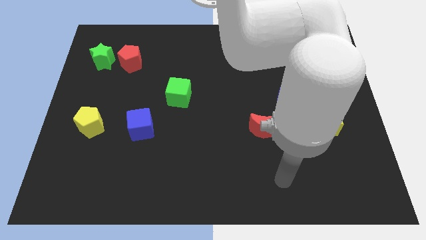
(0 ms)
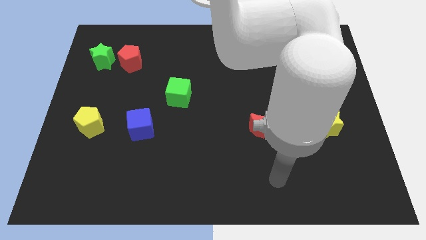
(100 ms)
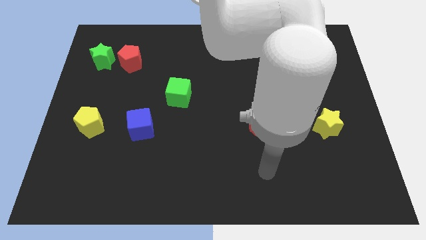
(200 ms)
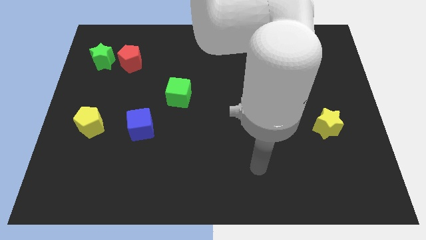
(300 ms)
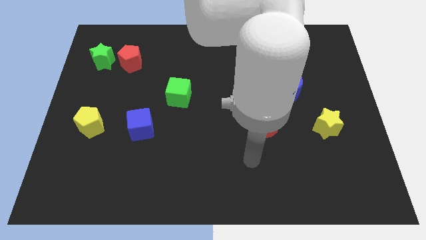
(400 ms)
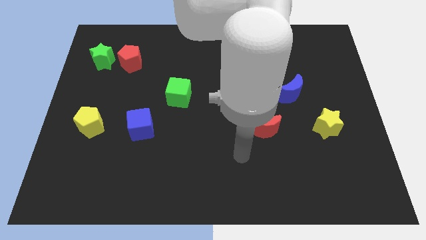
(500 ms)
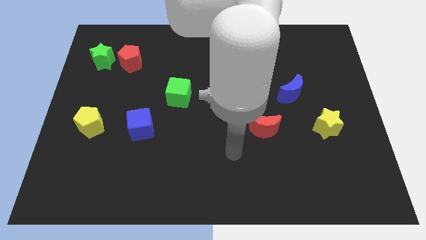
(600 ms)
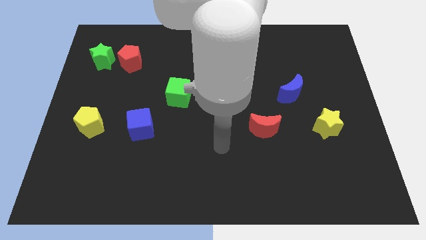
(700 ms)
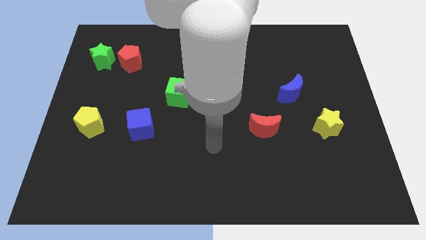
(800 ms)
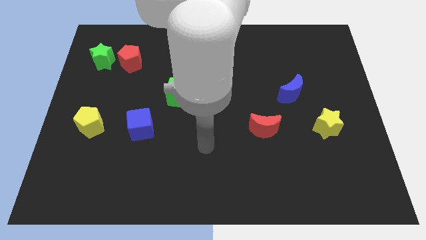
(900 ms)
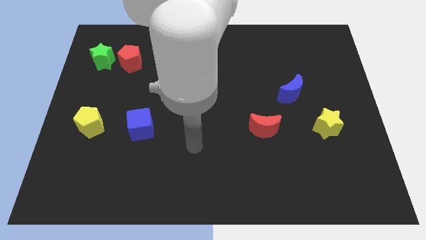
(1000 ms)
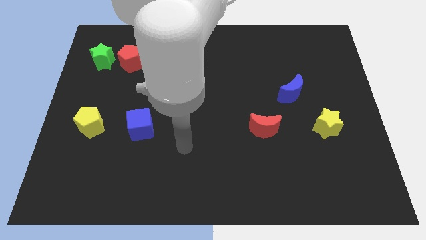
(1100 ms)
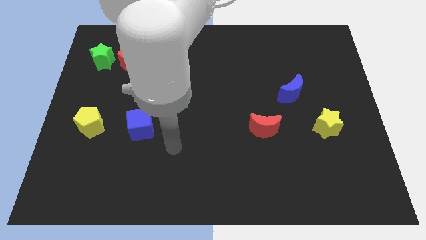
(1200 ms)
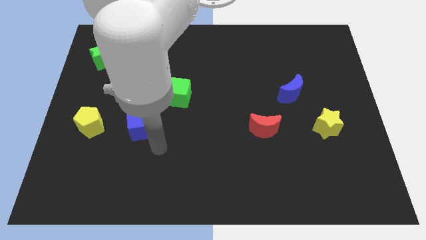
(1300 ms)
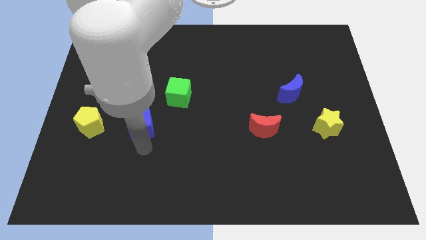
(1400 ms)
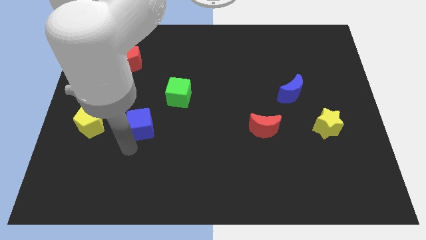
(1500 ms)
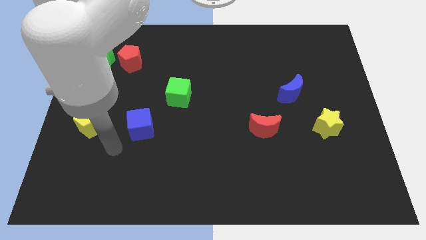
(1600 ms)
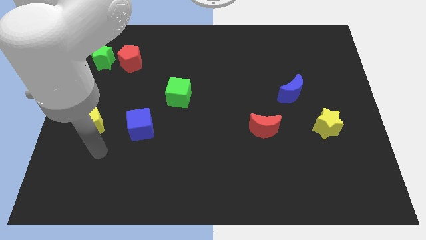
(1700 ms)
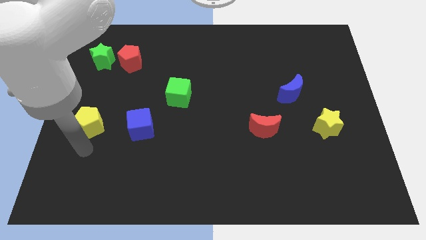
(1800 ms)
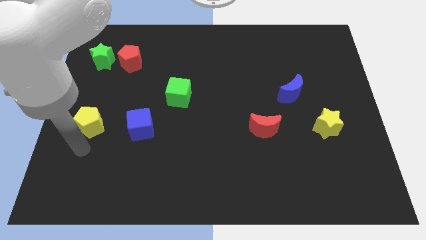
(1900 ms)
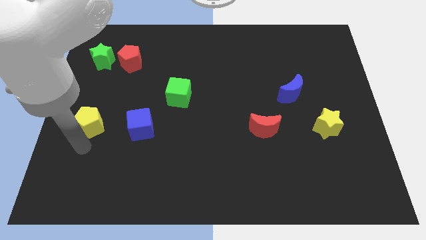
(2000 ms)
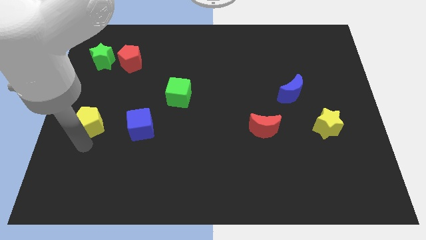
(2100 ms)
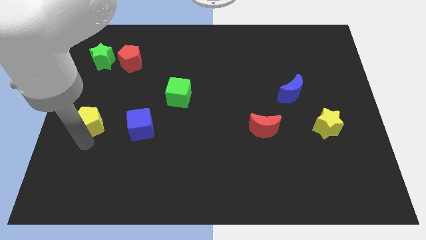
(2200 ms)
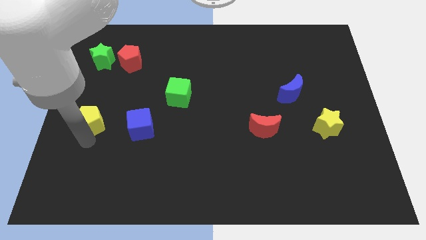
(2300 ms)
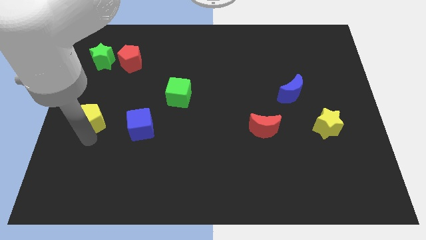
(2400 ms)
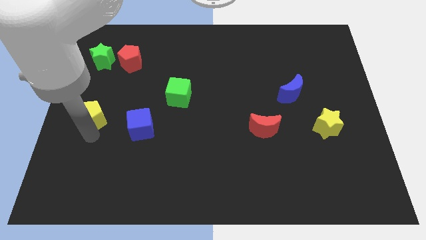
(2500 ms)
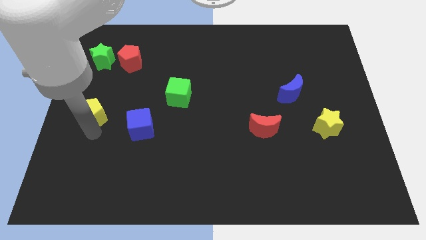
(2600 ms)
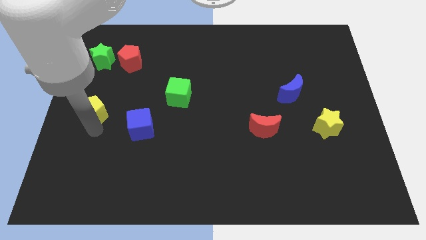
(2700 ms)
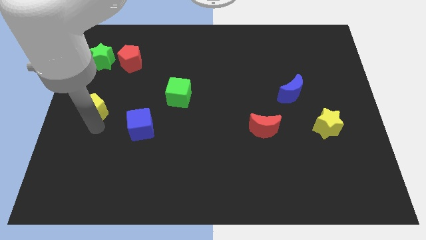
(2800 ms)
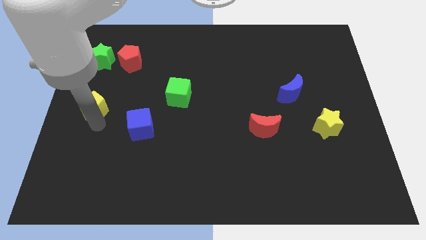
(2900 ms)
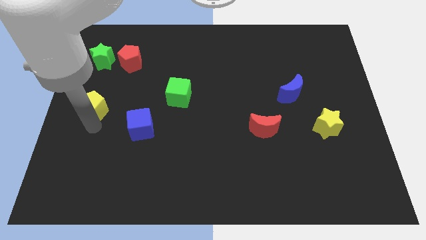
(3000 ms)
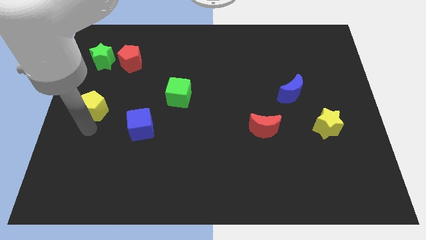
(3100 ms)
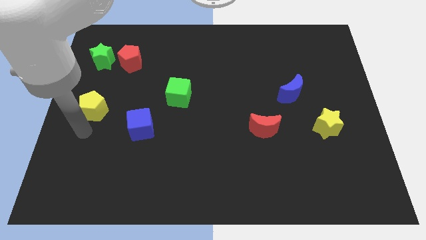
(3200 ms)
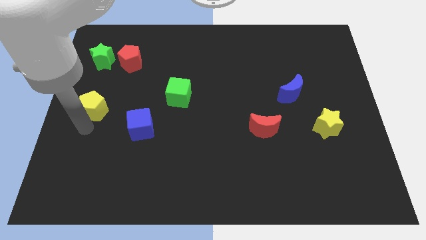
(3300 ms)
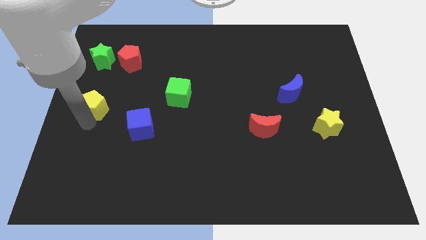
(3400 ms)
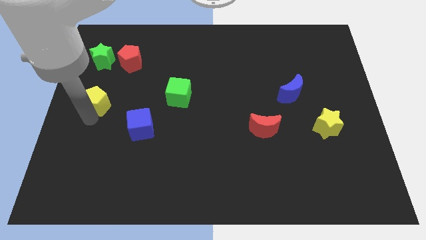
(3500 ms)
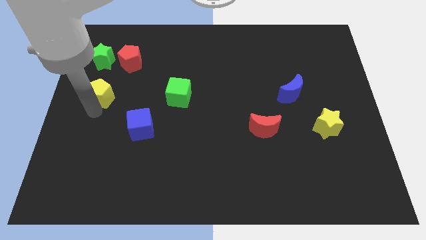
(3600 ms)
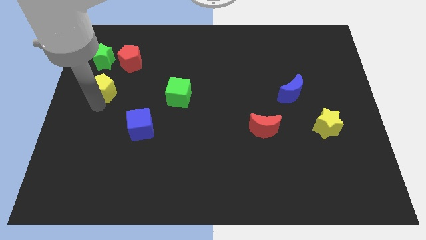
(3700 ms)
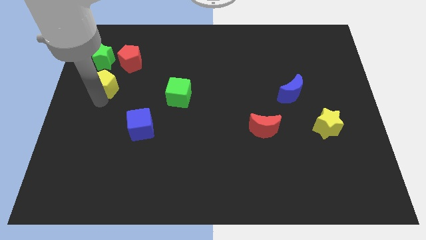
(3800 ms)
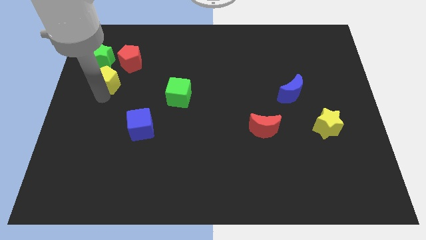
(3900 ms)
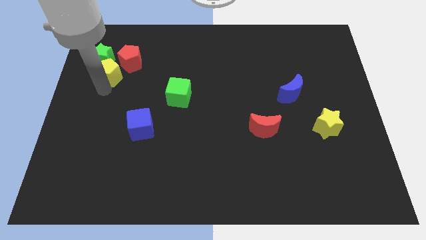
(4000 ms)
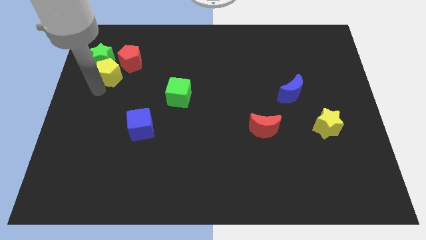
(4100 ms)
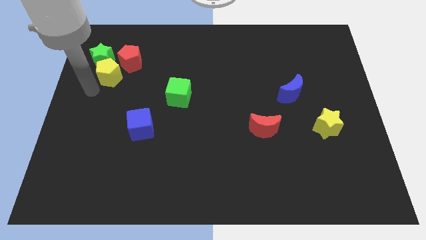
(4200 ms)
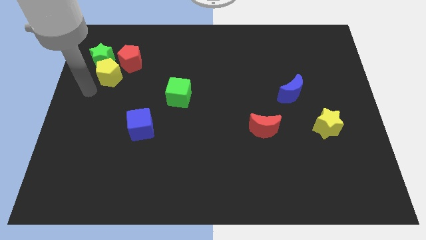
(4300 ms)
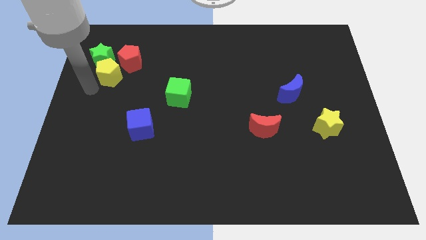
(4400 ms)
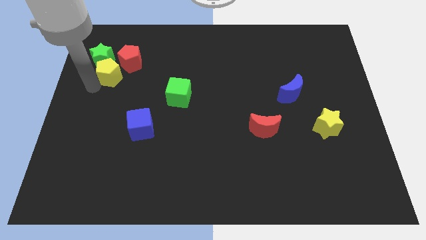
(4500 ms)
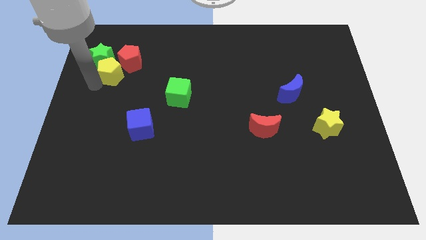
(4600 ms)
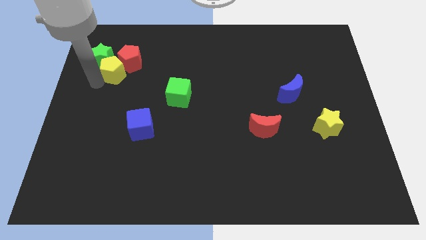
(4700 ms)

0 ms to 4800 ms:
move the yellow pentagon next to the red pentagon

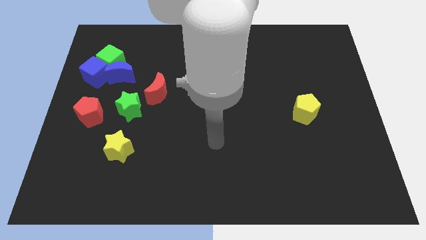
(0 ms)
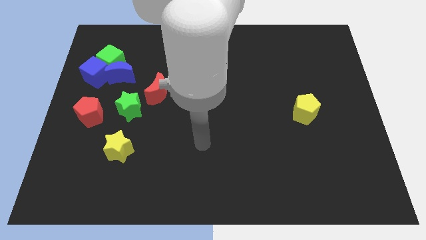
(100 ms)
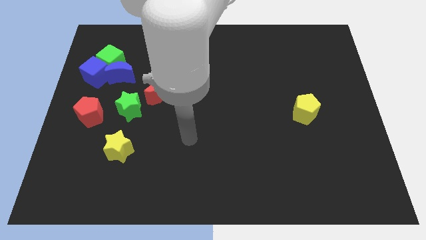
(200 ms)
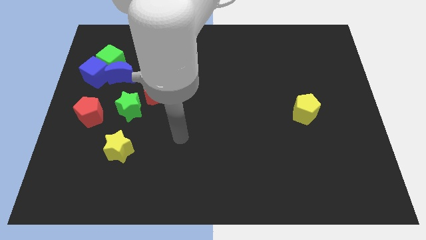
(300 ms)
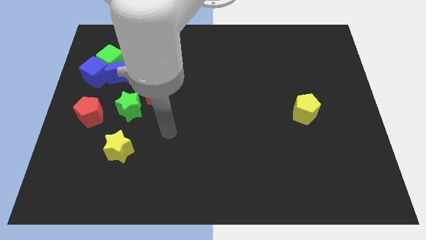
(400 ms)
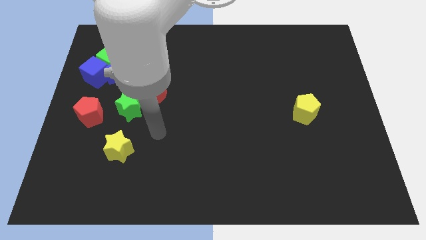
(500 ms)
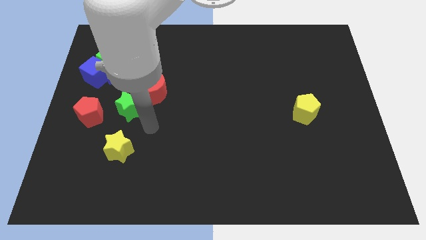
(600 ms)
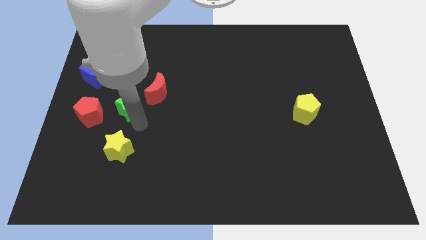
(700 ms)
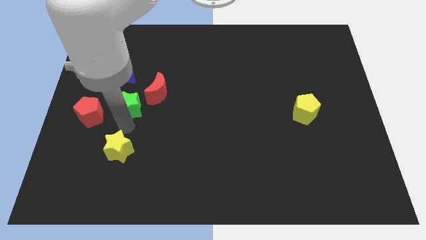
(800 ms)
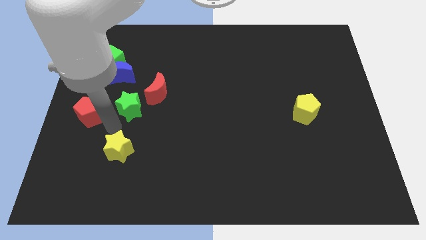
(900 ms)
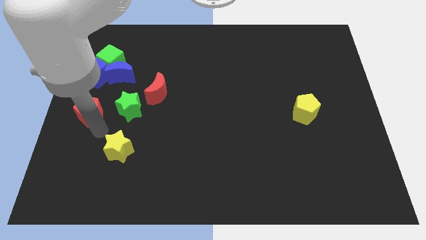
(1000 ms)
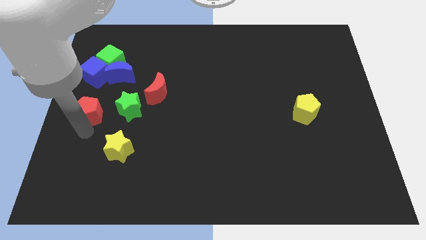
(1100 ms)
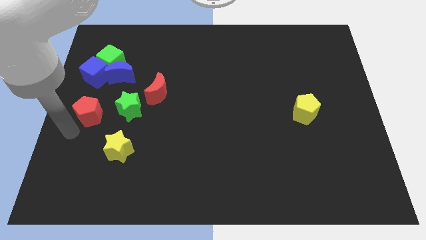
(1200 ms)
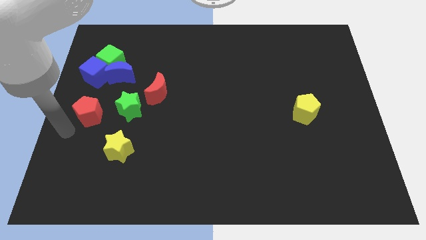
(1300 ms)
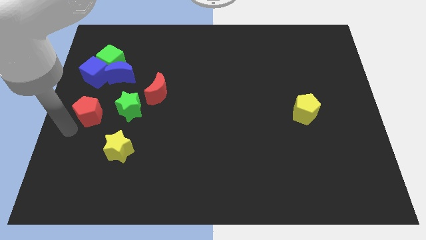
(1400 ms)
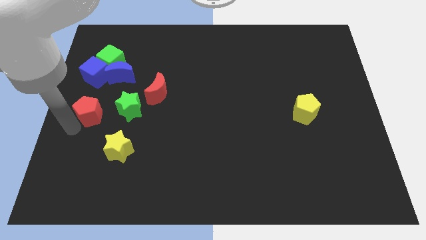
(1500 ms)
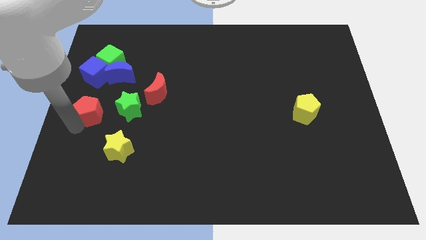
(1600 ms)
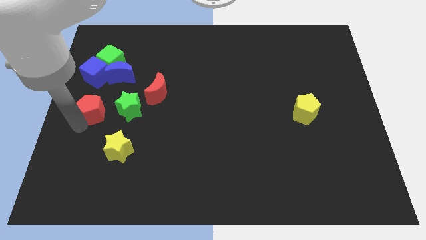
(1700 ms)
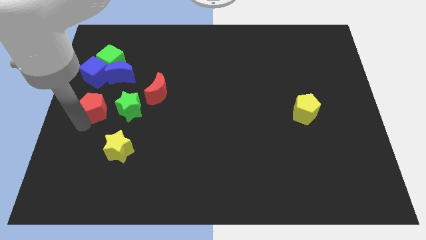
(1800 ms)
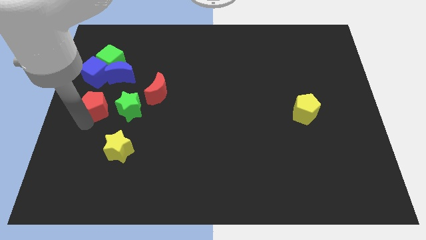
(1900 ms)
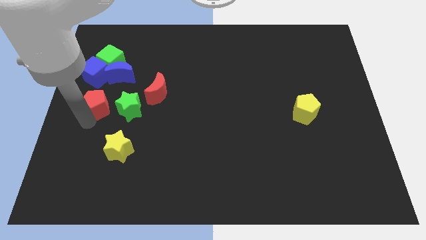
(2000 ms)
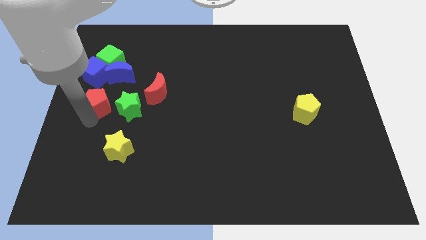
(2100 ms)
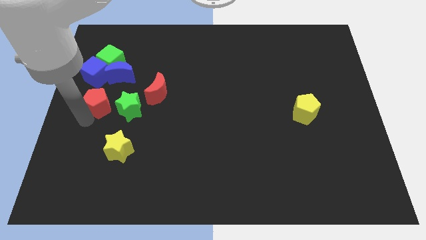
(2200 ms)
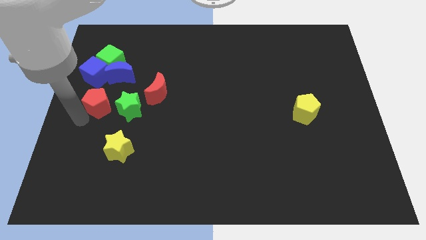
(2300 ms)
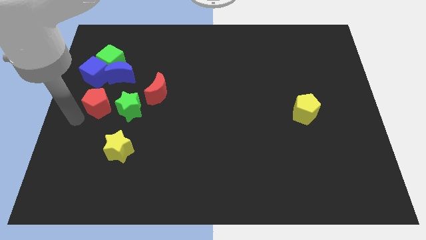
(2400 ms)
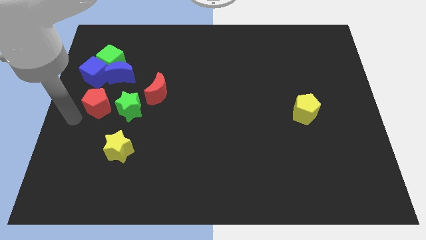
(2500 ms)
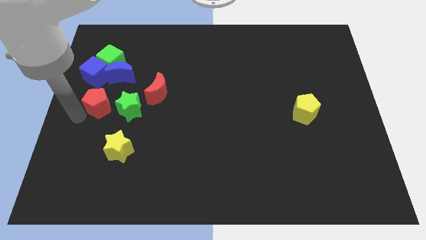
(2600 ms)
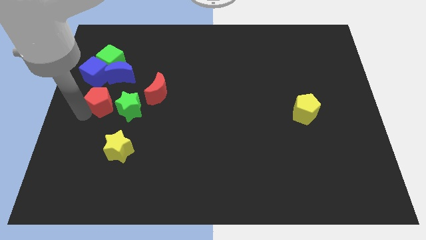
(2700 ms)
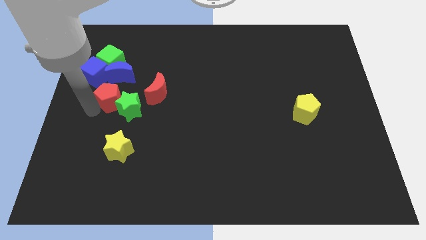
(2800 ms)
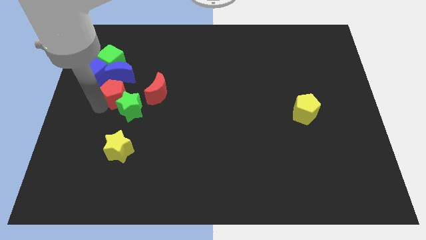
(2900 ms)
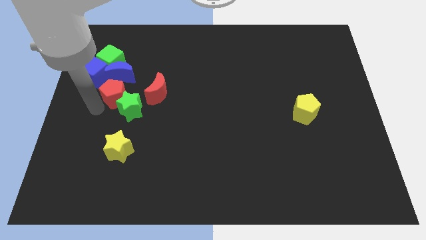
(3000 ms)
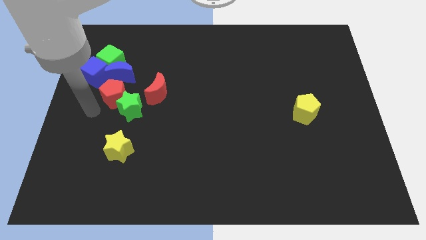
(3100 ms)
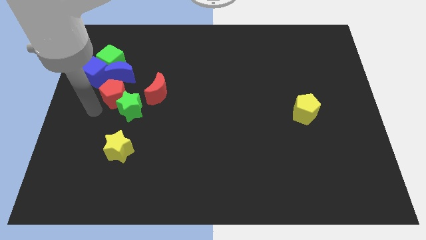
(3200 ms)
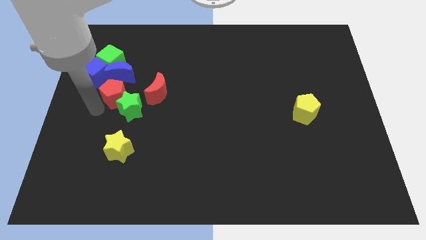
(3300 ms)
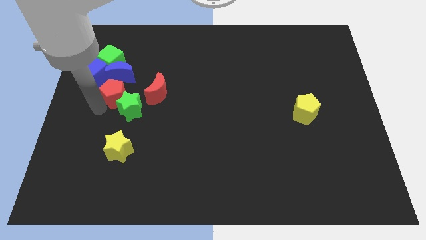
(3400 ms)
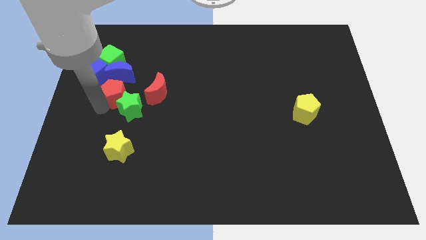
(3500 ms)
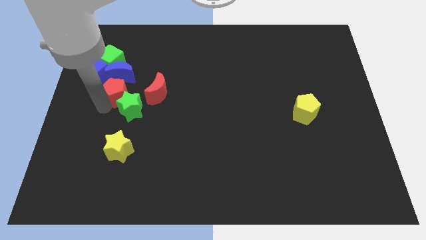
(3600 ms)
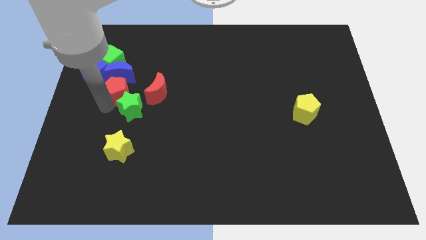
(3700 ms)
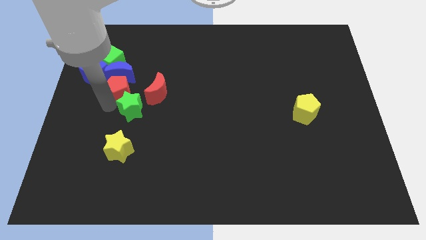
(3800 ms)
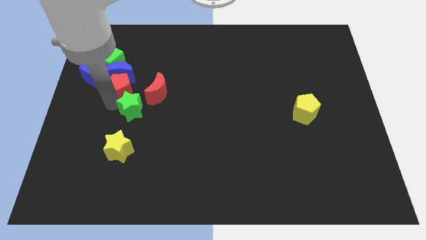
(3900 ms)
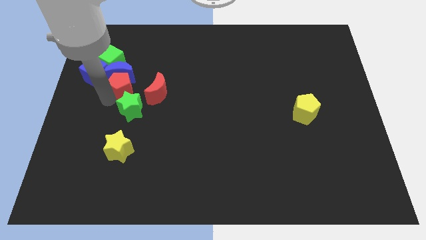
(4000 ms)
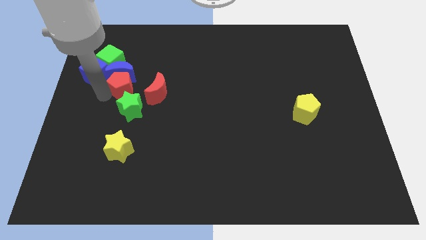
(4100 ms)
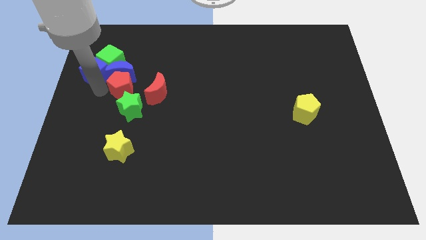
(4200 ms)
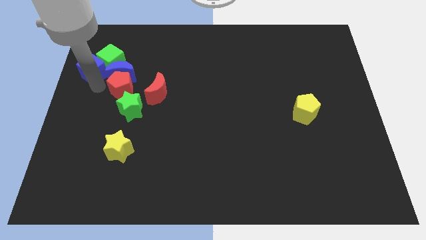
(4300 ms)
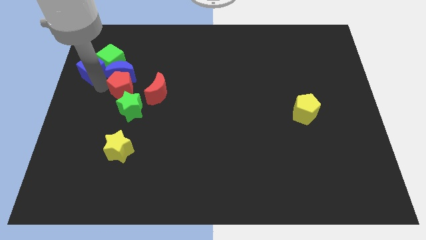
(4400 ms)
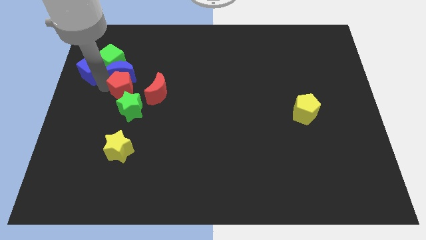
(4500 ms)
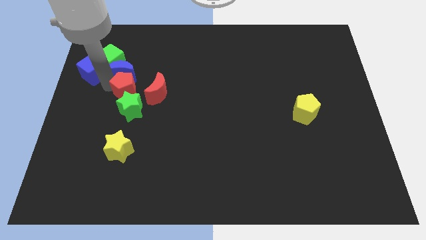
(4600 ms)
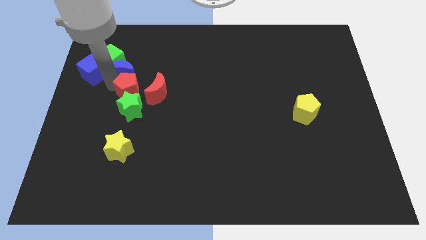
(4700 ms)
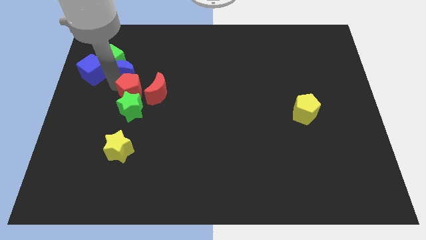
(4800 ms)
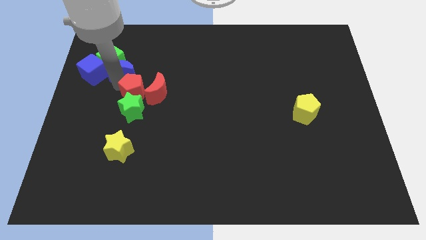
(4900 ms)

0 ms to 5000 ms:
slide the red pentagon towards the red moon
